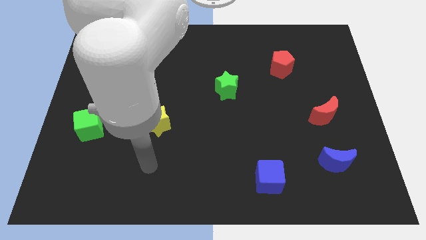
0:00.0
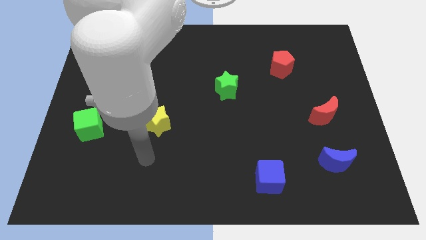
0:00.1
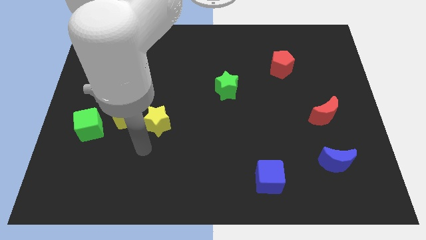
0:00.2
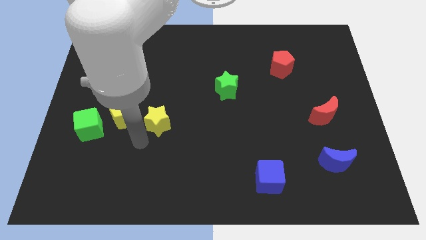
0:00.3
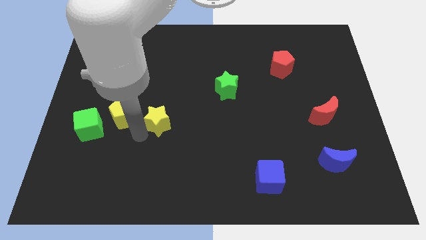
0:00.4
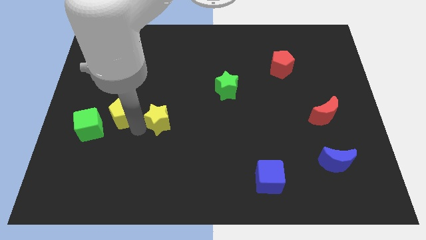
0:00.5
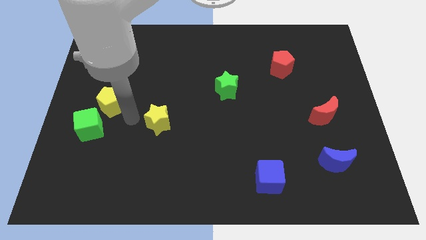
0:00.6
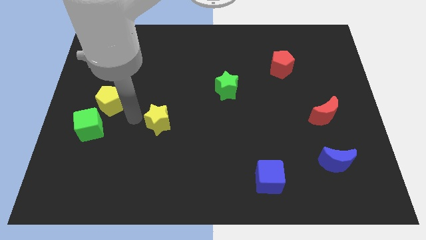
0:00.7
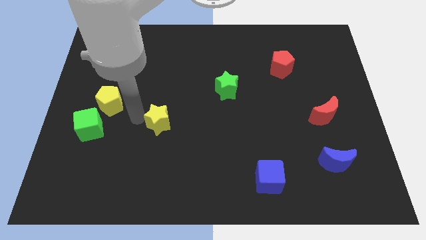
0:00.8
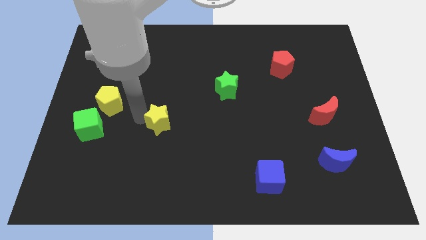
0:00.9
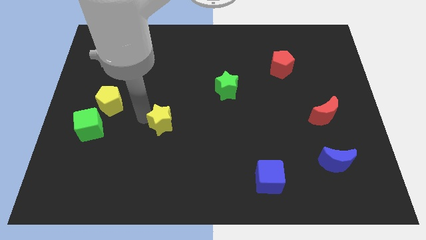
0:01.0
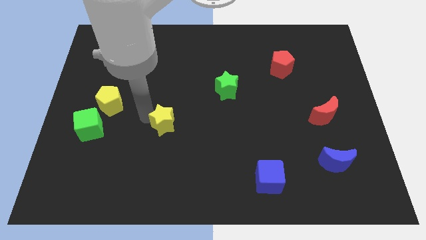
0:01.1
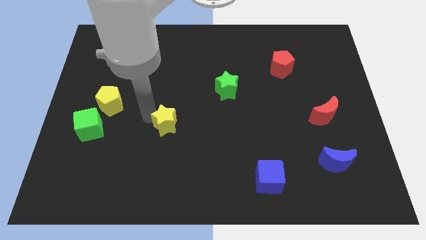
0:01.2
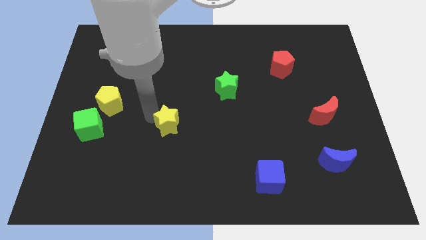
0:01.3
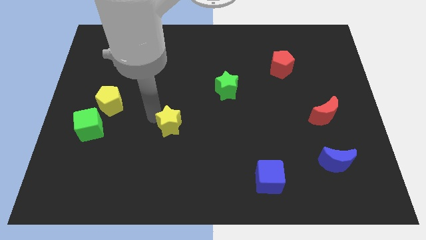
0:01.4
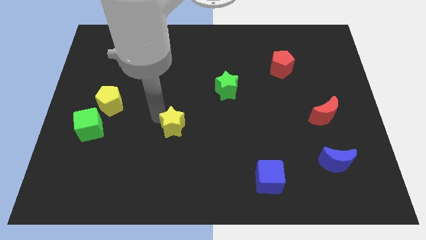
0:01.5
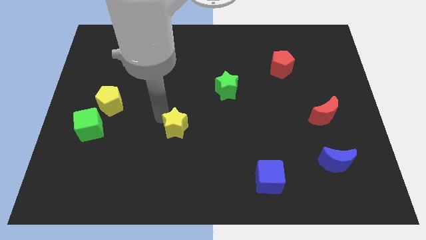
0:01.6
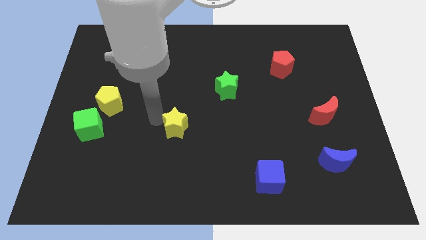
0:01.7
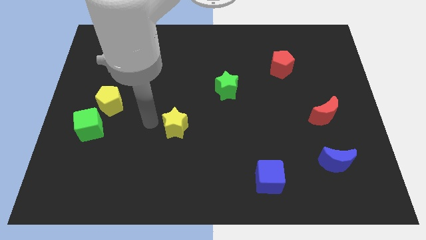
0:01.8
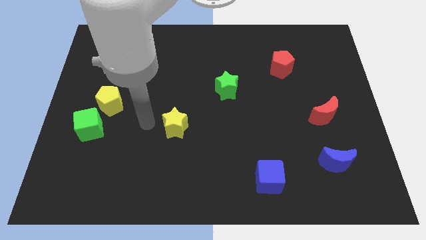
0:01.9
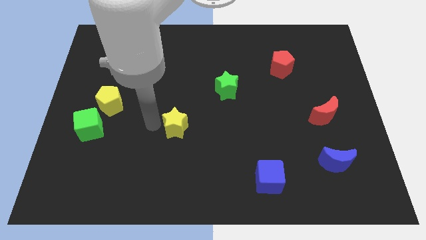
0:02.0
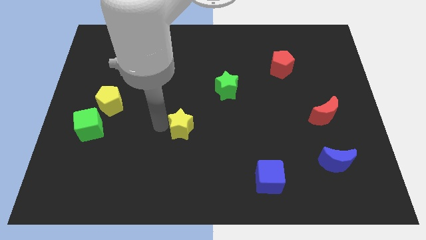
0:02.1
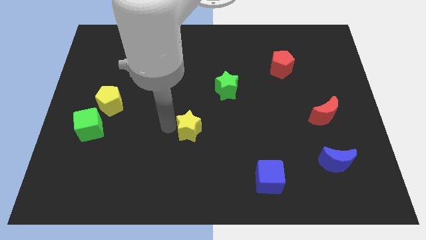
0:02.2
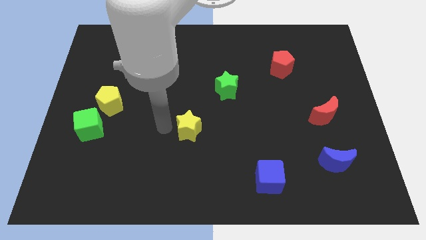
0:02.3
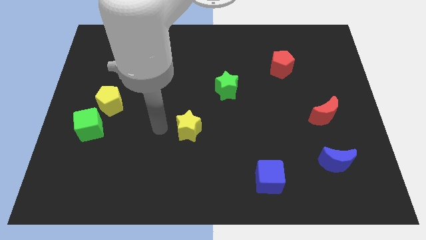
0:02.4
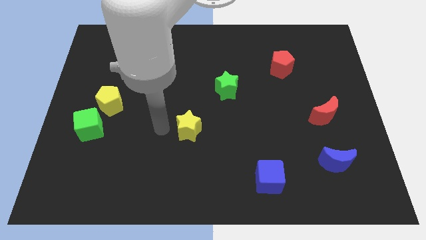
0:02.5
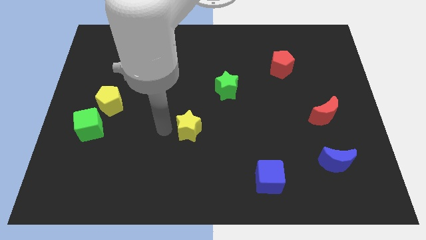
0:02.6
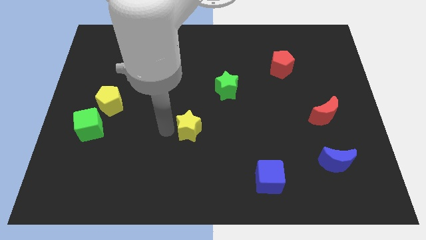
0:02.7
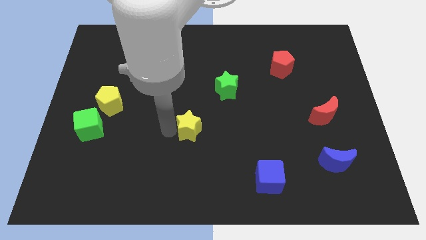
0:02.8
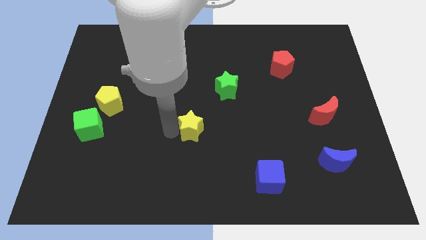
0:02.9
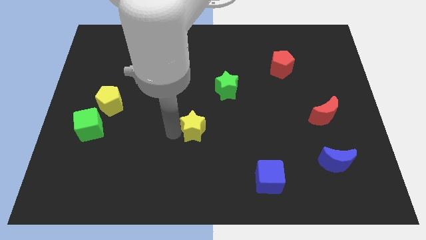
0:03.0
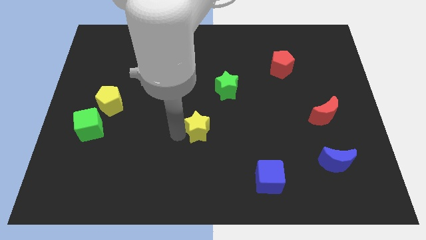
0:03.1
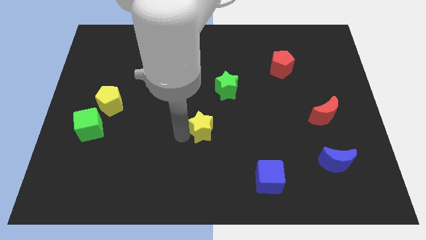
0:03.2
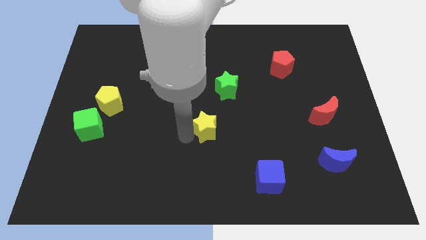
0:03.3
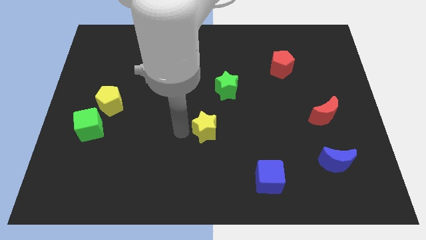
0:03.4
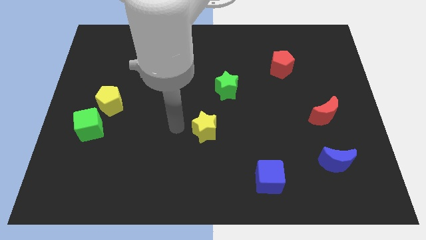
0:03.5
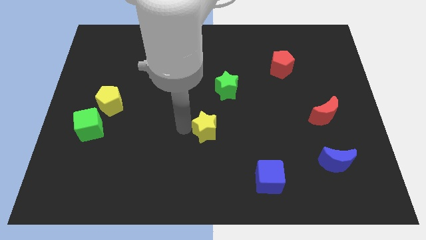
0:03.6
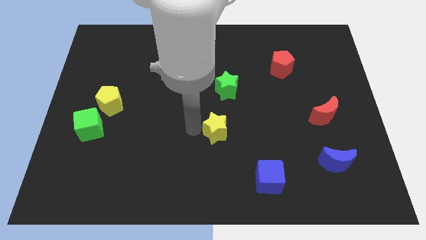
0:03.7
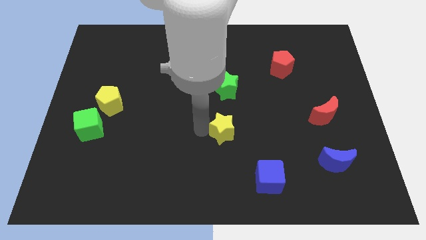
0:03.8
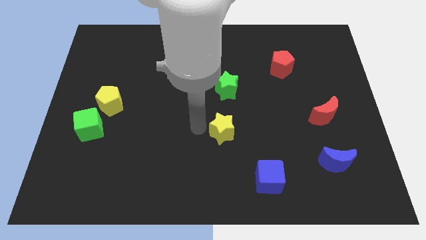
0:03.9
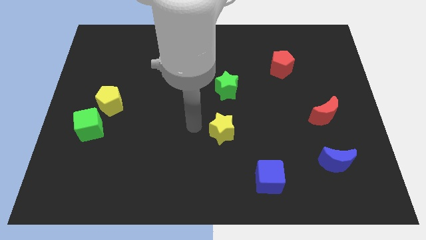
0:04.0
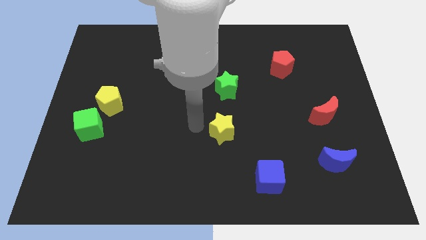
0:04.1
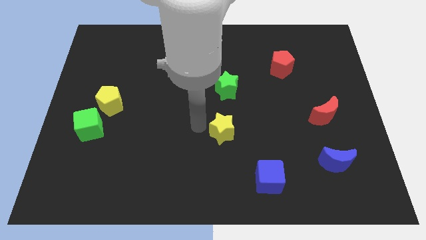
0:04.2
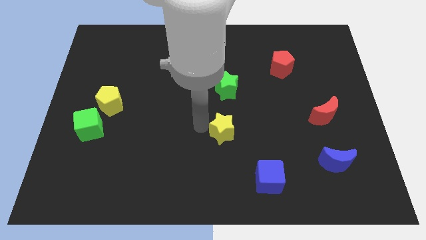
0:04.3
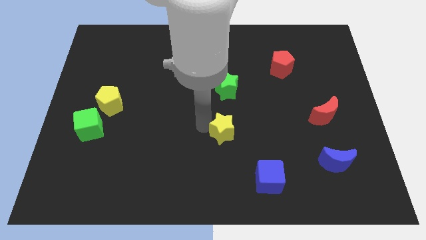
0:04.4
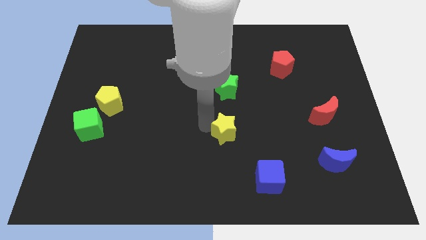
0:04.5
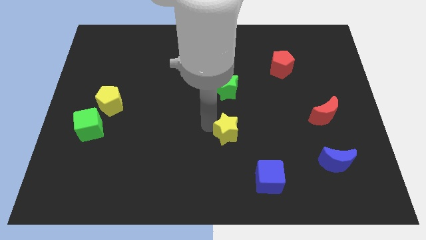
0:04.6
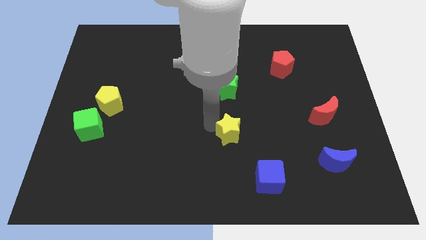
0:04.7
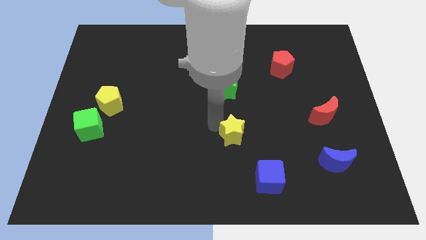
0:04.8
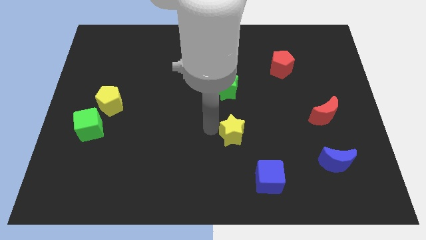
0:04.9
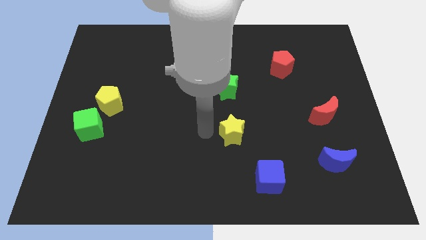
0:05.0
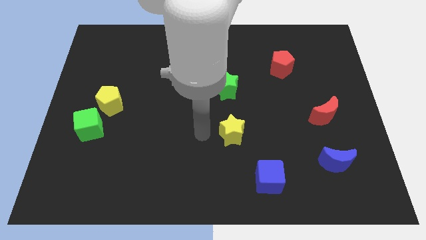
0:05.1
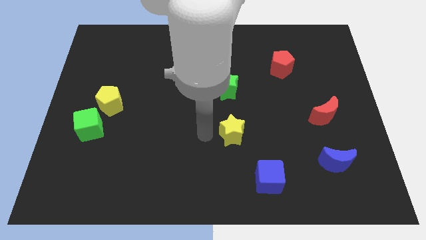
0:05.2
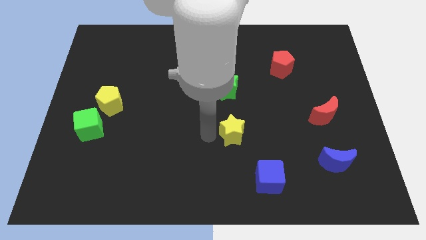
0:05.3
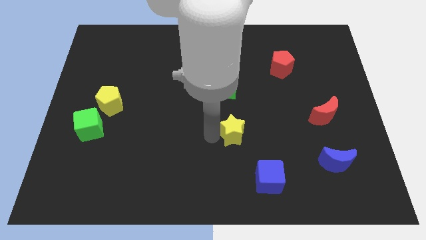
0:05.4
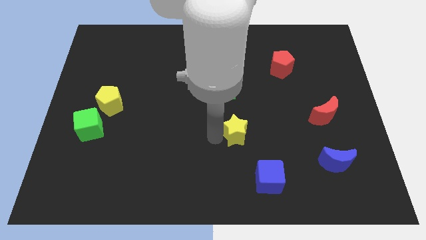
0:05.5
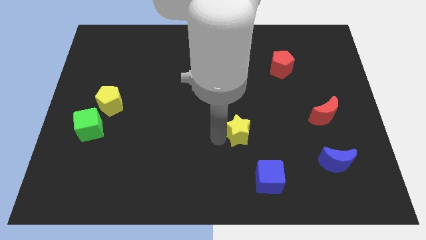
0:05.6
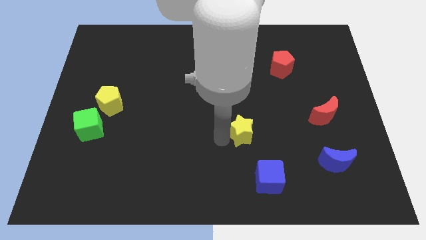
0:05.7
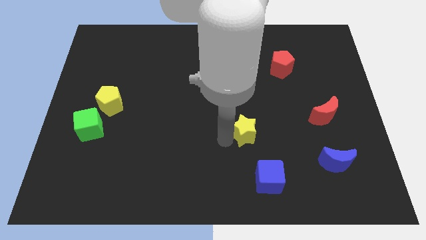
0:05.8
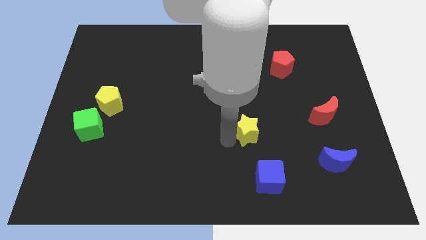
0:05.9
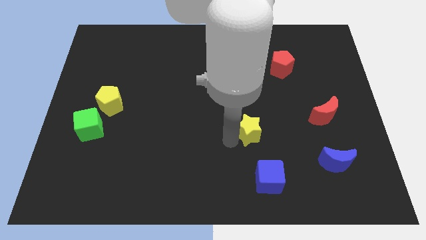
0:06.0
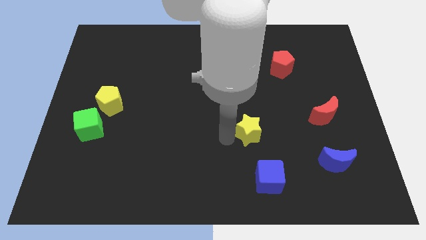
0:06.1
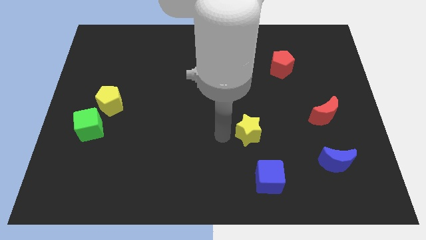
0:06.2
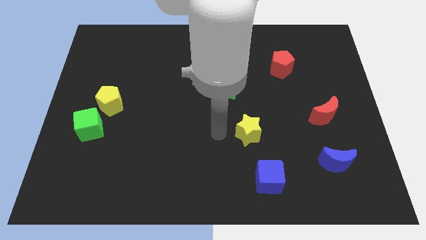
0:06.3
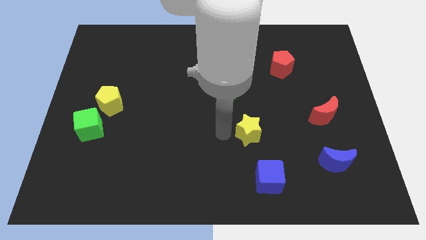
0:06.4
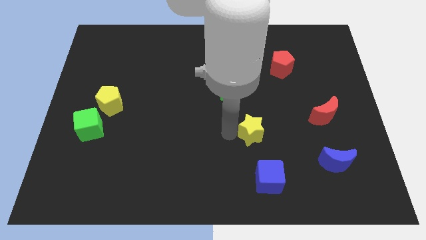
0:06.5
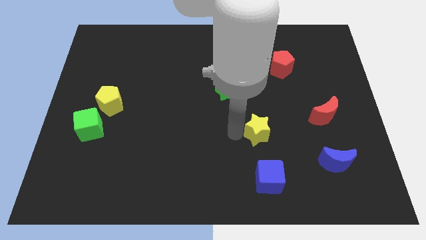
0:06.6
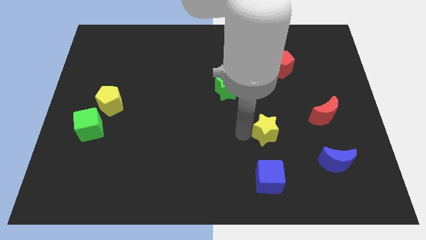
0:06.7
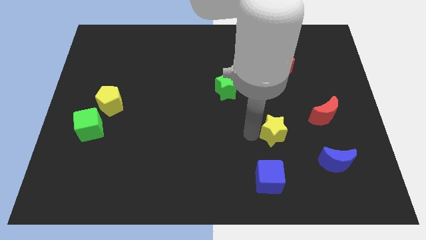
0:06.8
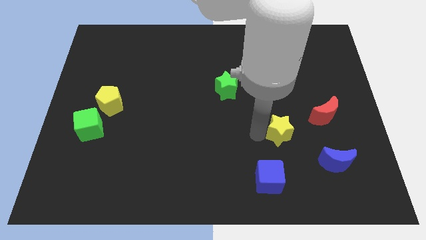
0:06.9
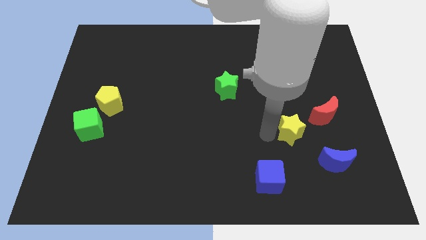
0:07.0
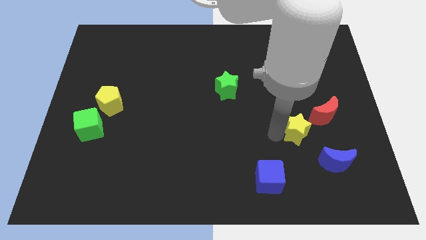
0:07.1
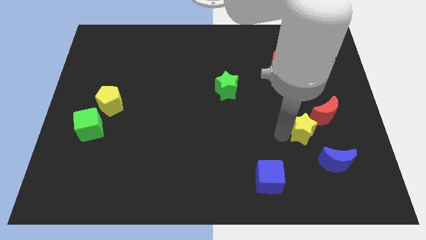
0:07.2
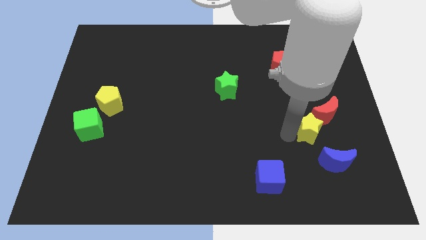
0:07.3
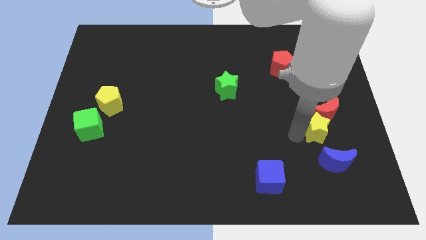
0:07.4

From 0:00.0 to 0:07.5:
move the yellow star towards the red moon
